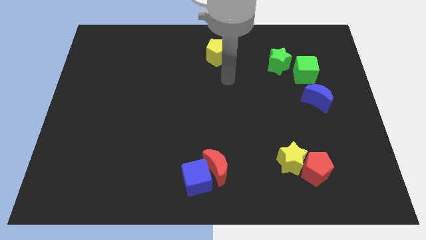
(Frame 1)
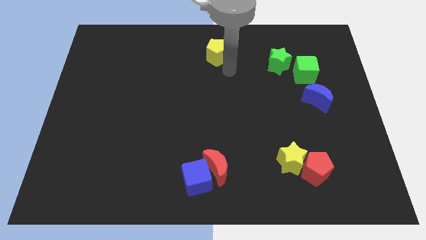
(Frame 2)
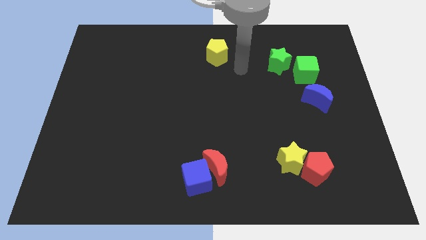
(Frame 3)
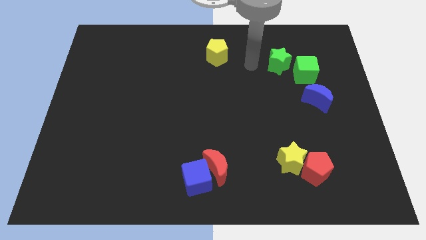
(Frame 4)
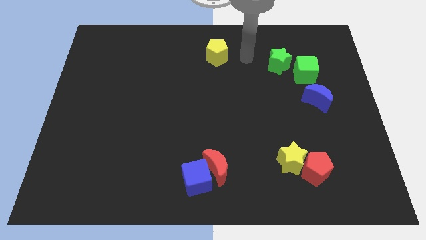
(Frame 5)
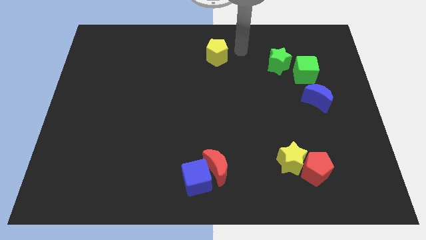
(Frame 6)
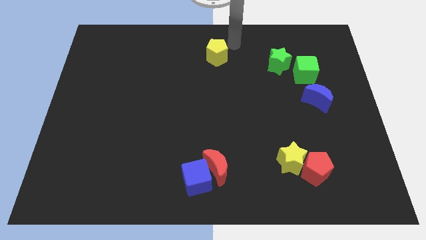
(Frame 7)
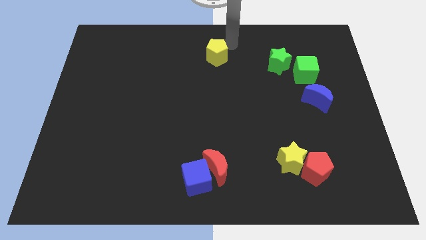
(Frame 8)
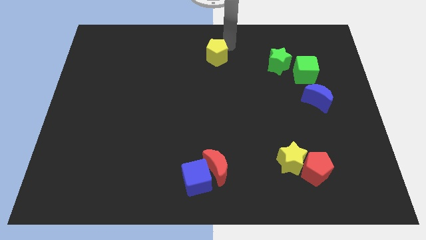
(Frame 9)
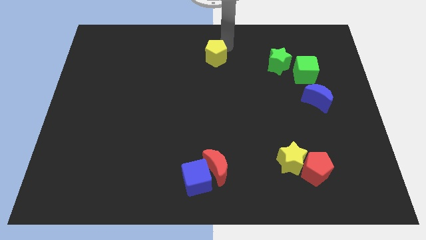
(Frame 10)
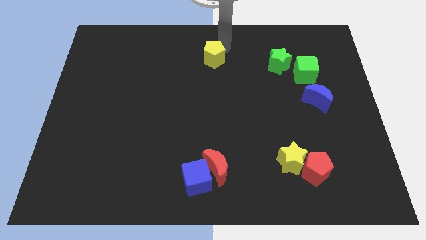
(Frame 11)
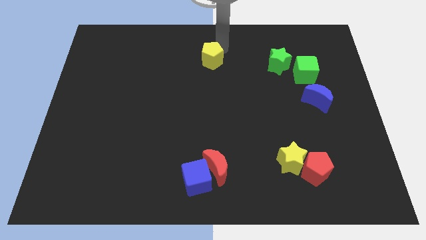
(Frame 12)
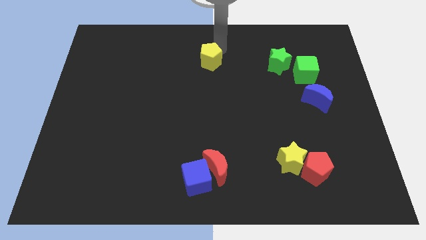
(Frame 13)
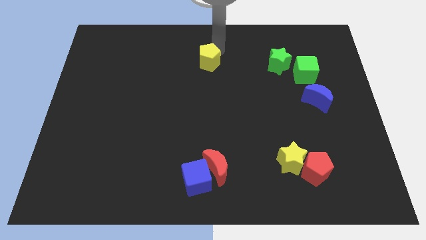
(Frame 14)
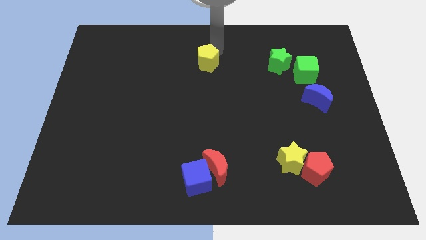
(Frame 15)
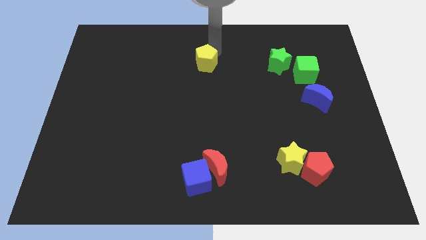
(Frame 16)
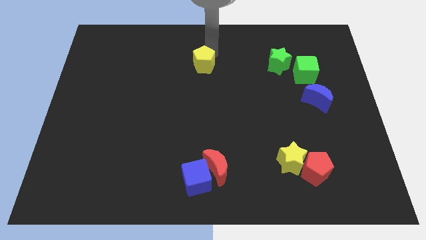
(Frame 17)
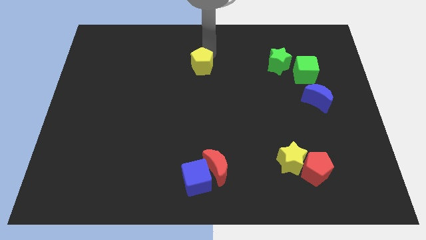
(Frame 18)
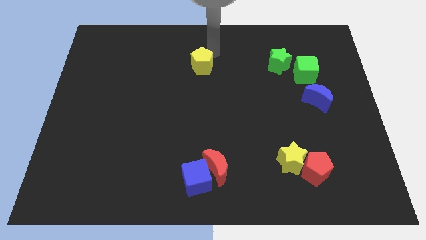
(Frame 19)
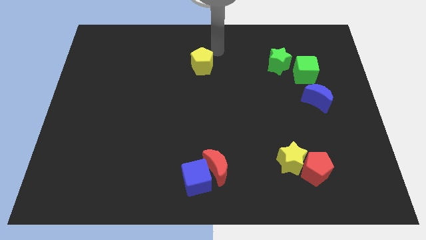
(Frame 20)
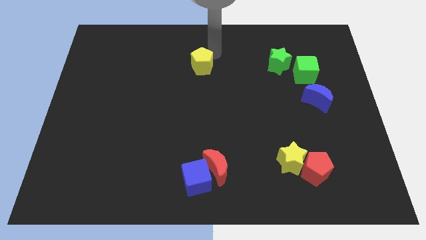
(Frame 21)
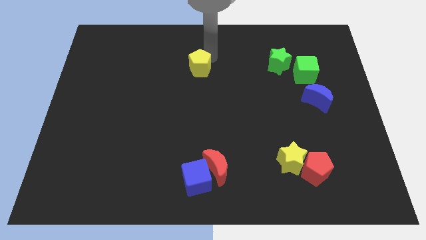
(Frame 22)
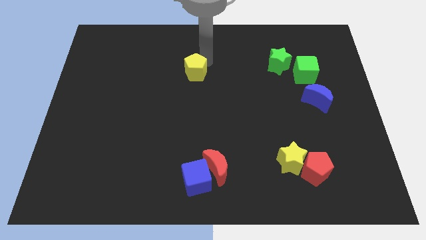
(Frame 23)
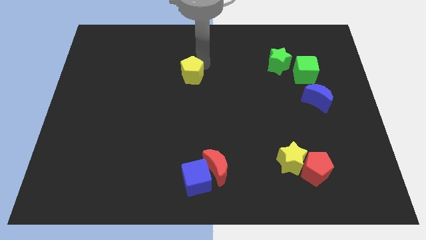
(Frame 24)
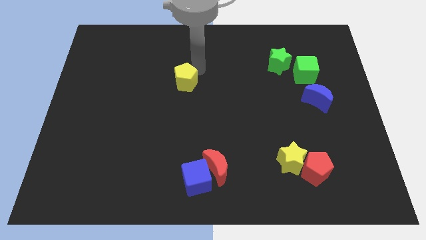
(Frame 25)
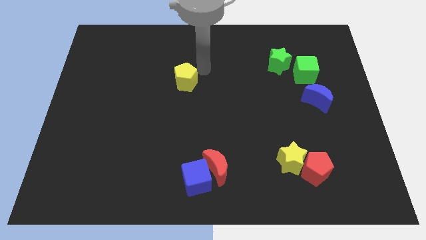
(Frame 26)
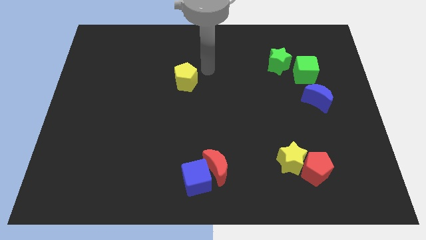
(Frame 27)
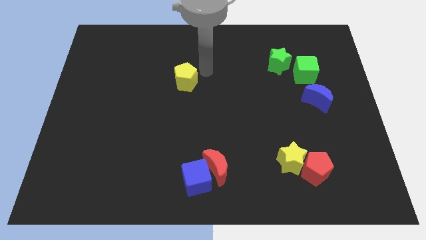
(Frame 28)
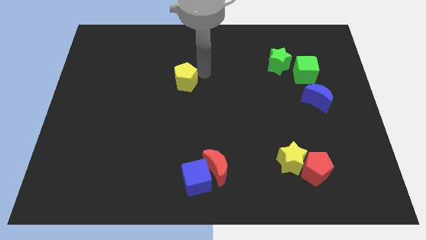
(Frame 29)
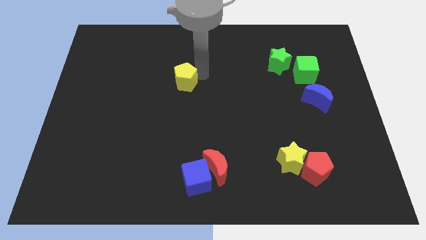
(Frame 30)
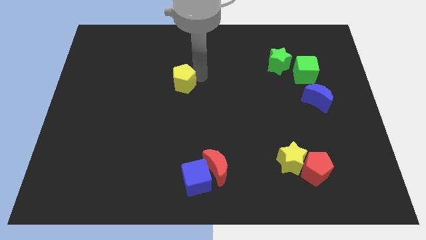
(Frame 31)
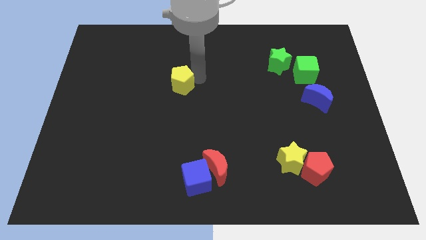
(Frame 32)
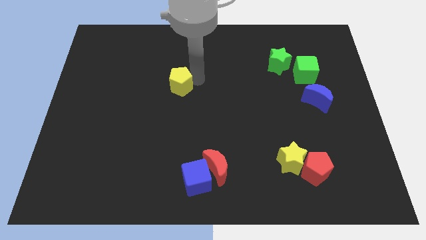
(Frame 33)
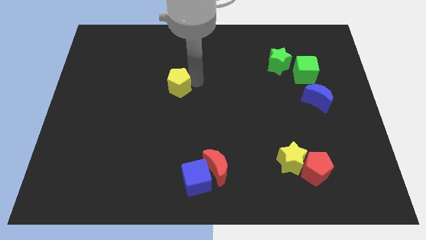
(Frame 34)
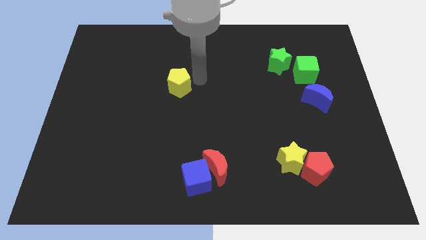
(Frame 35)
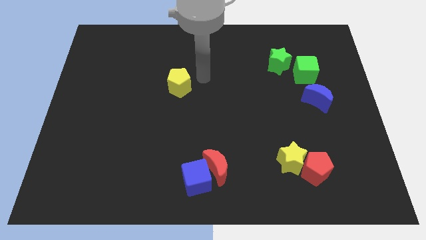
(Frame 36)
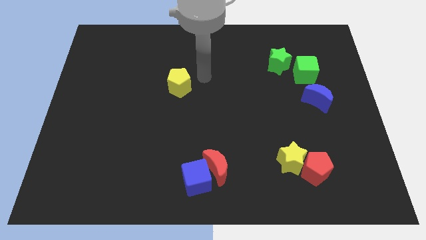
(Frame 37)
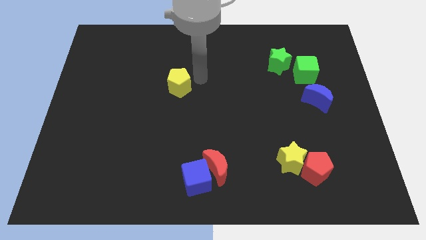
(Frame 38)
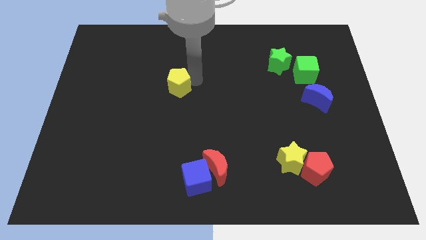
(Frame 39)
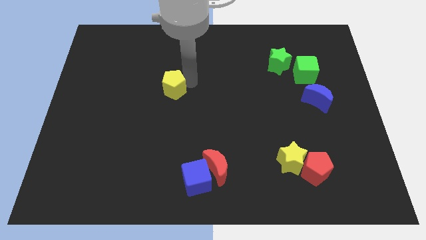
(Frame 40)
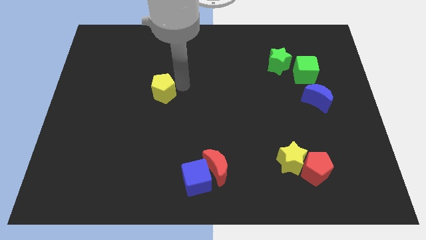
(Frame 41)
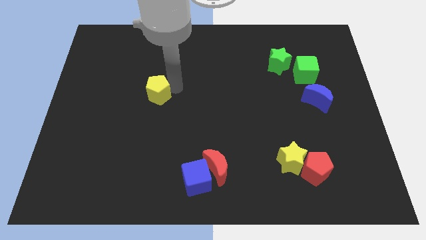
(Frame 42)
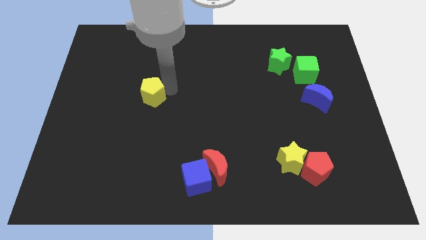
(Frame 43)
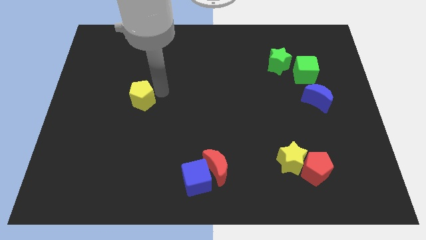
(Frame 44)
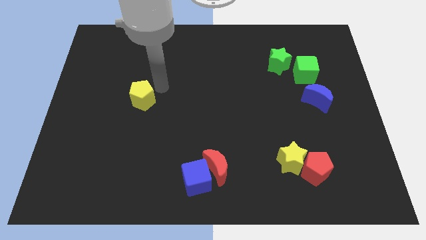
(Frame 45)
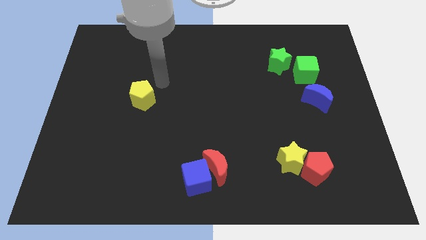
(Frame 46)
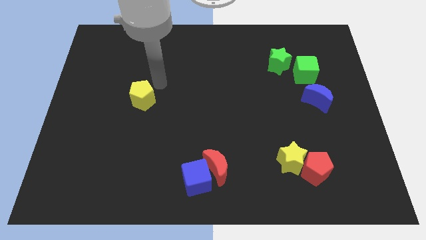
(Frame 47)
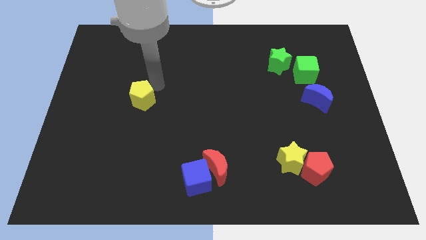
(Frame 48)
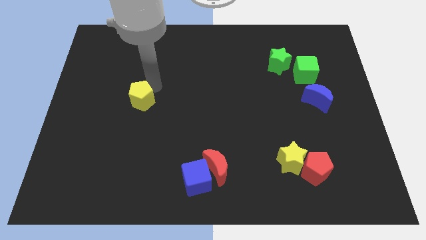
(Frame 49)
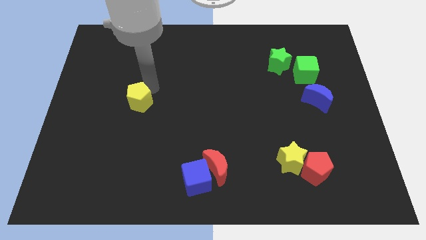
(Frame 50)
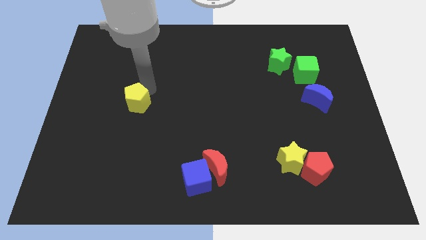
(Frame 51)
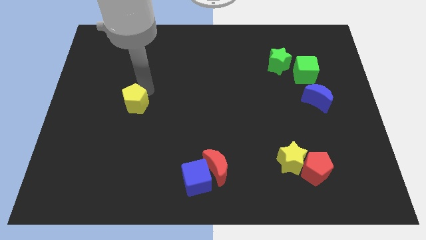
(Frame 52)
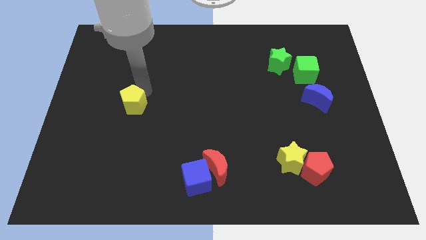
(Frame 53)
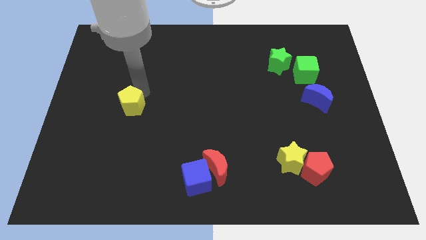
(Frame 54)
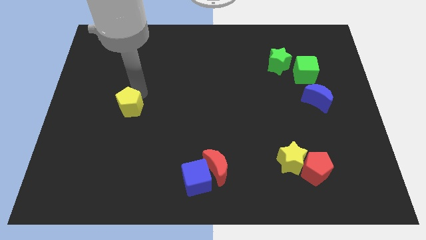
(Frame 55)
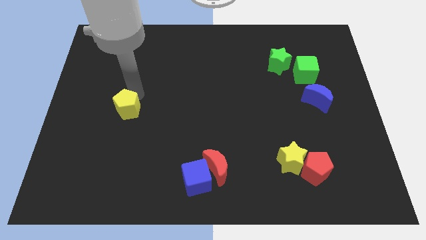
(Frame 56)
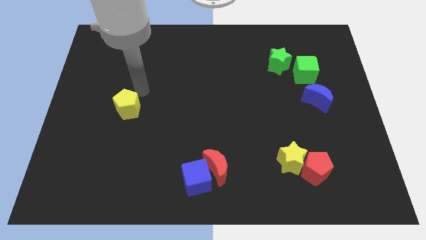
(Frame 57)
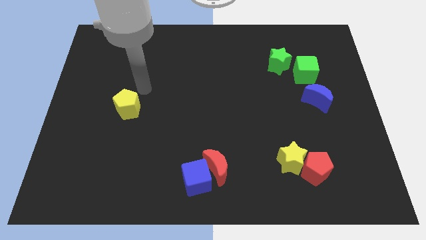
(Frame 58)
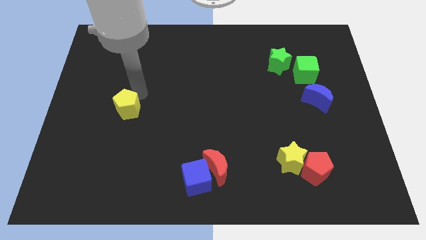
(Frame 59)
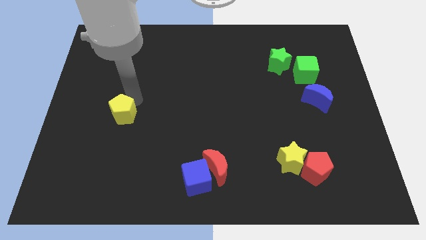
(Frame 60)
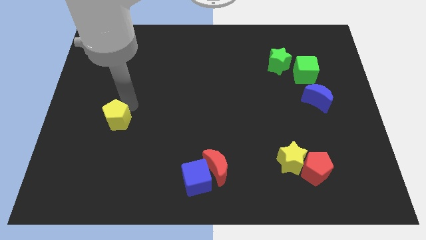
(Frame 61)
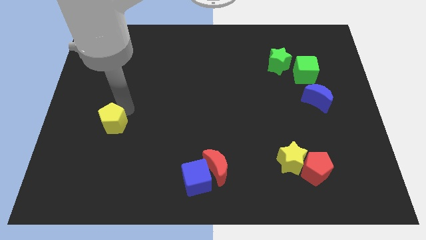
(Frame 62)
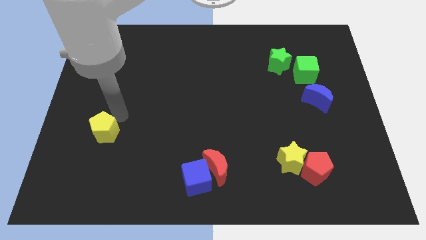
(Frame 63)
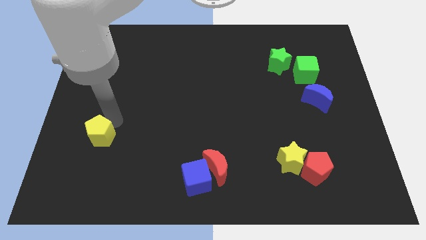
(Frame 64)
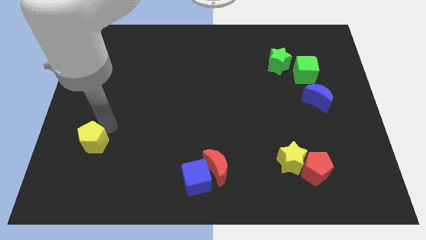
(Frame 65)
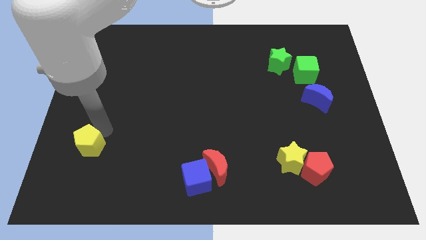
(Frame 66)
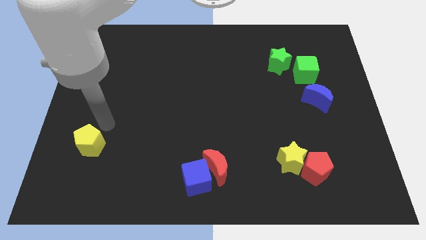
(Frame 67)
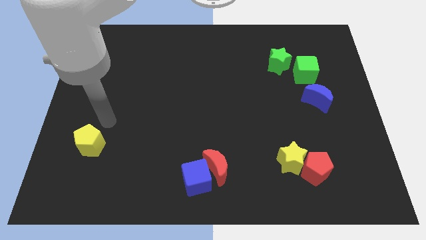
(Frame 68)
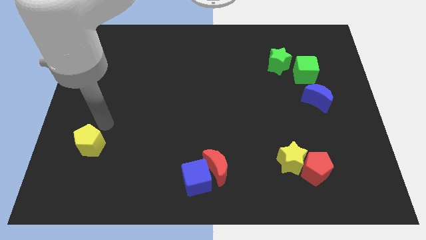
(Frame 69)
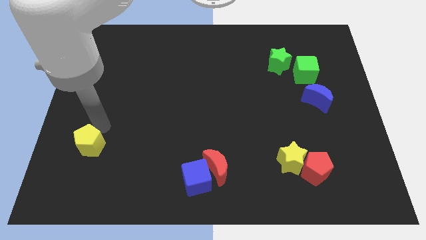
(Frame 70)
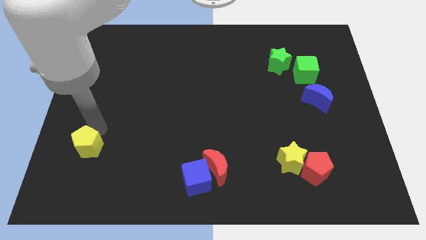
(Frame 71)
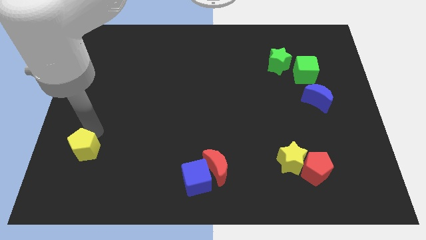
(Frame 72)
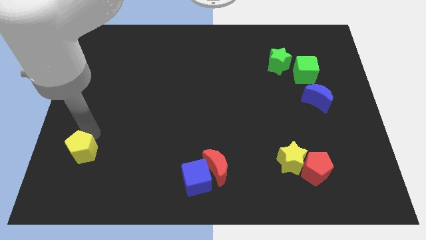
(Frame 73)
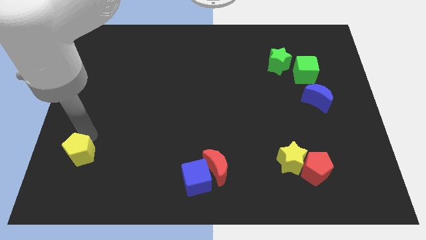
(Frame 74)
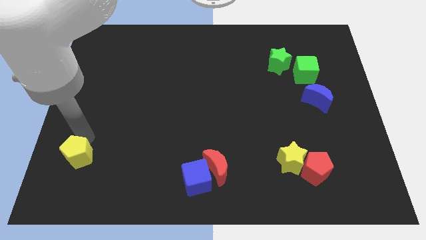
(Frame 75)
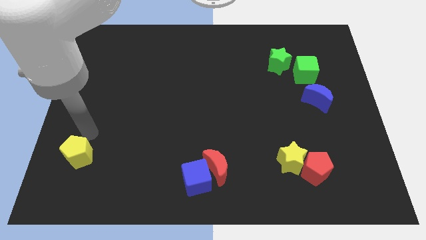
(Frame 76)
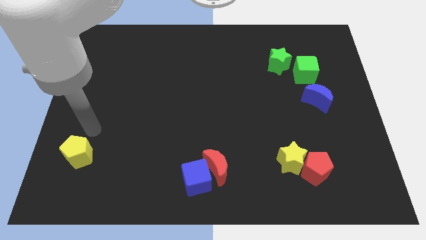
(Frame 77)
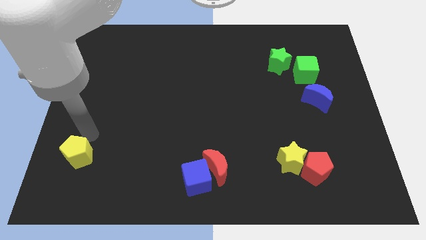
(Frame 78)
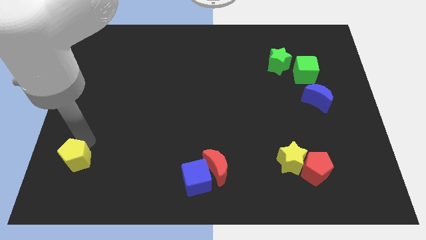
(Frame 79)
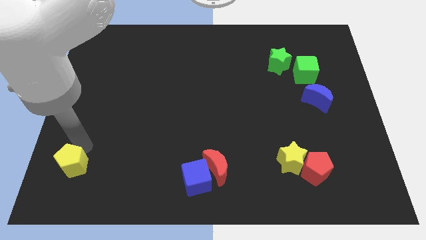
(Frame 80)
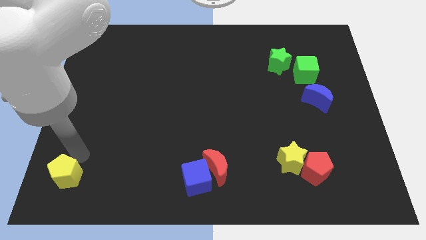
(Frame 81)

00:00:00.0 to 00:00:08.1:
push the yellow pentagon to the bottom left of the board
